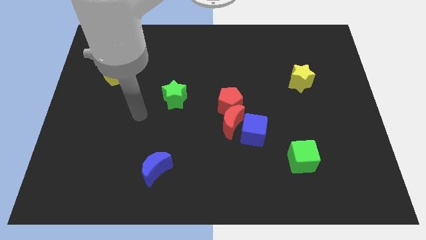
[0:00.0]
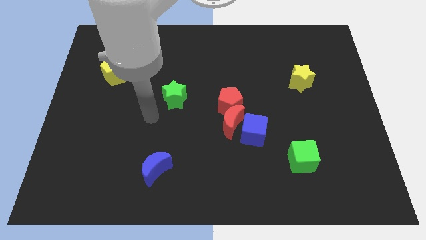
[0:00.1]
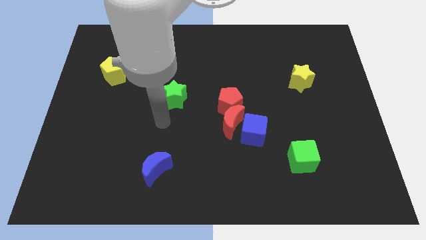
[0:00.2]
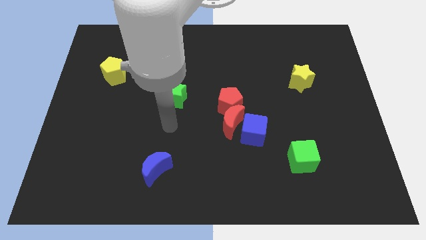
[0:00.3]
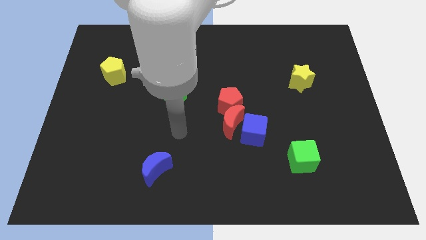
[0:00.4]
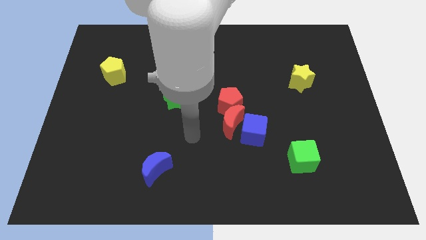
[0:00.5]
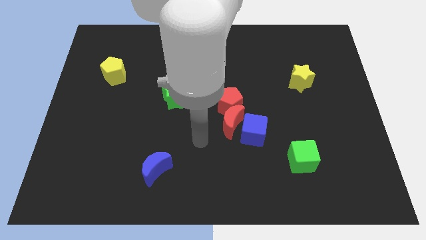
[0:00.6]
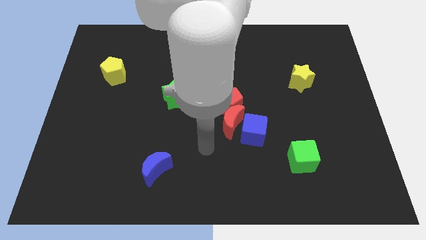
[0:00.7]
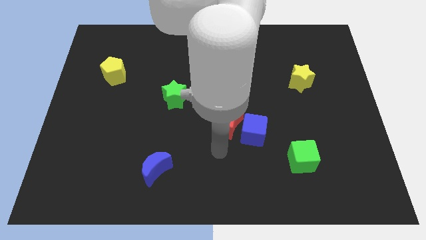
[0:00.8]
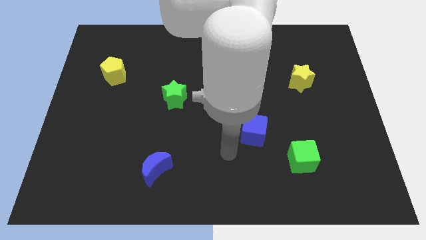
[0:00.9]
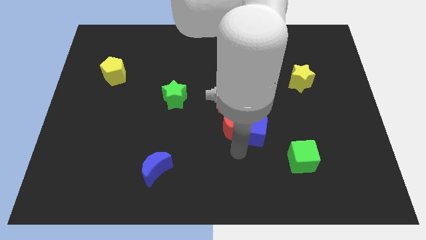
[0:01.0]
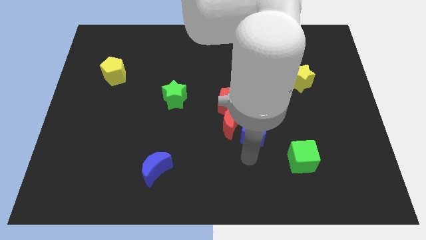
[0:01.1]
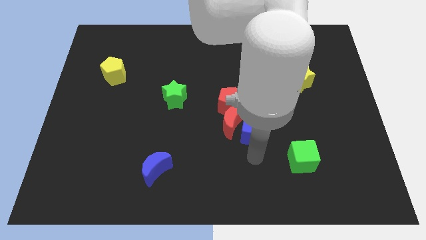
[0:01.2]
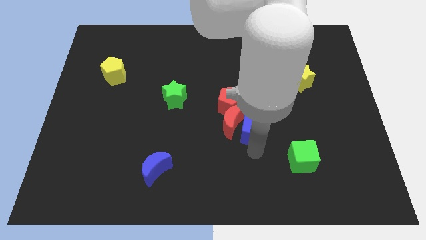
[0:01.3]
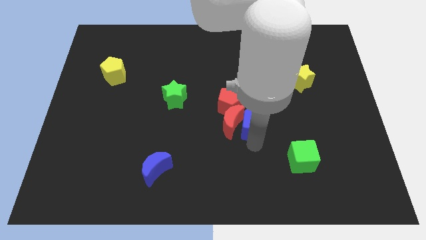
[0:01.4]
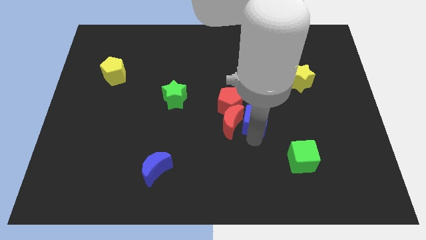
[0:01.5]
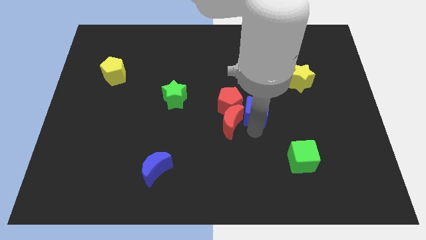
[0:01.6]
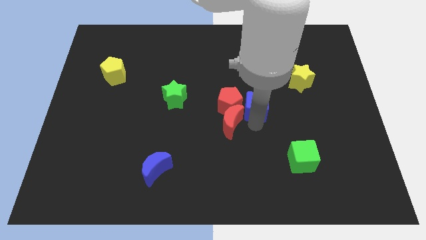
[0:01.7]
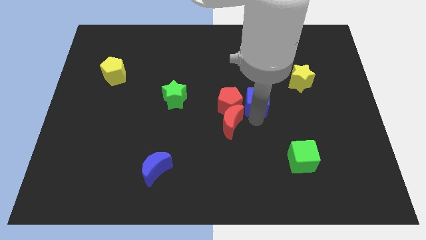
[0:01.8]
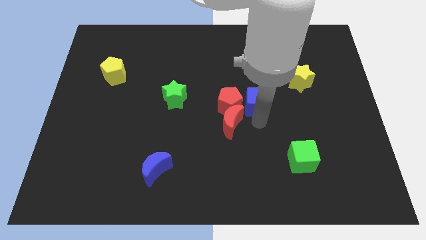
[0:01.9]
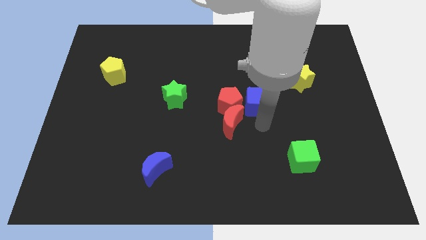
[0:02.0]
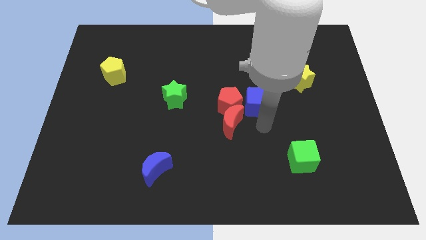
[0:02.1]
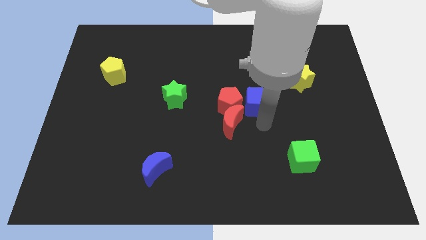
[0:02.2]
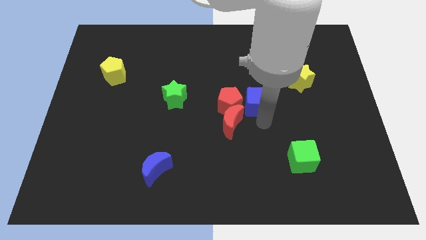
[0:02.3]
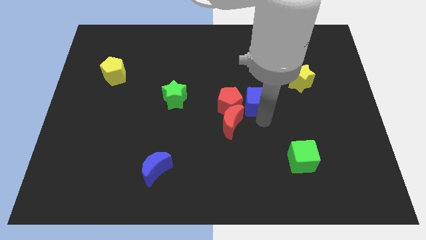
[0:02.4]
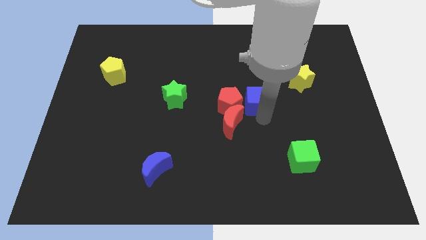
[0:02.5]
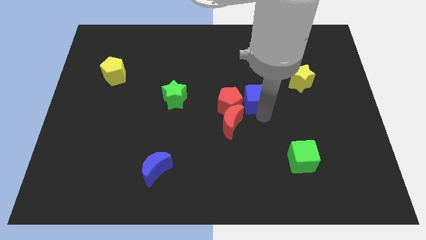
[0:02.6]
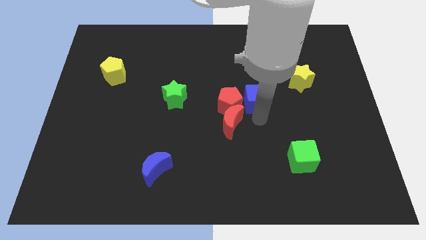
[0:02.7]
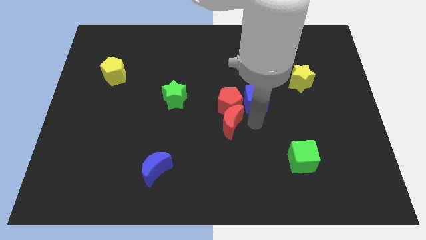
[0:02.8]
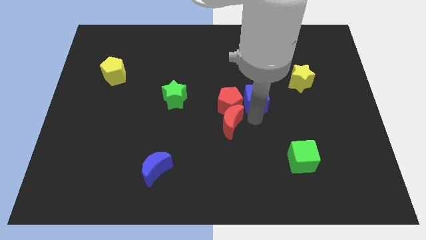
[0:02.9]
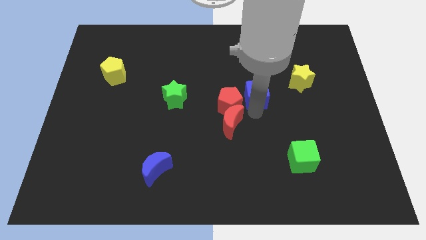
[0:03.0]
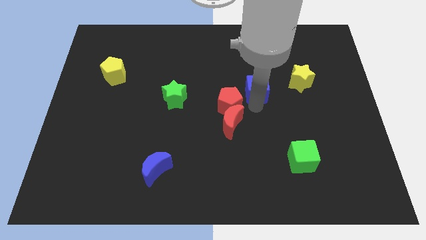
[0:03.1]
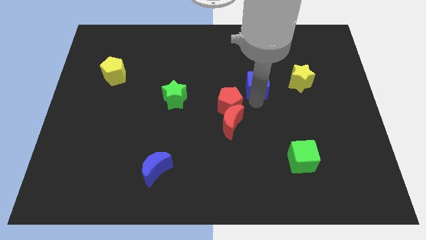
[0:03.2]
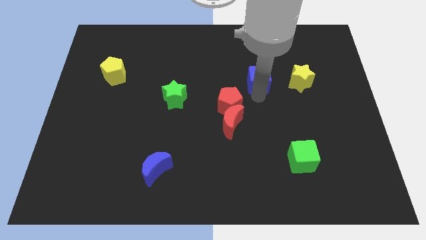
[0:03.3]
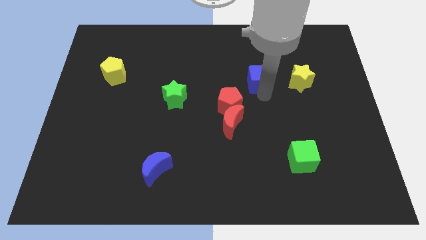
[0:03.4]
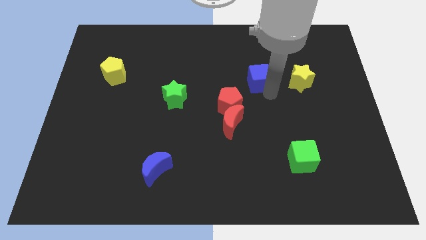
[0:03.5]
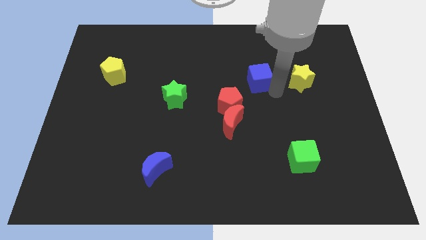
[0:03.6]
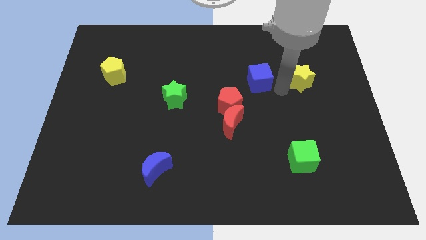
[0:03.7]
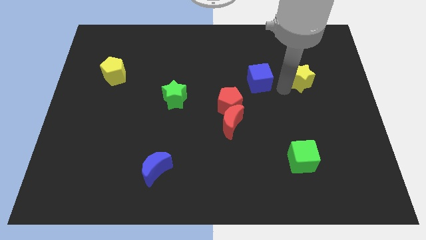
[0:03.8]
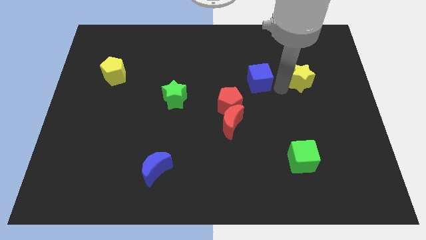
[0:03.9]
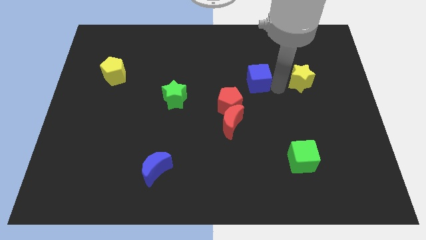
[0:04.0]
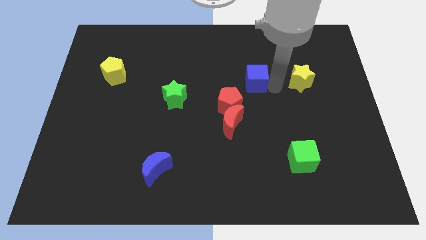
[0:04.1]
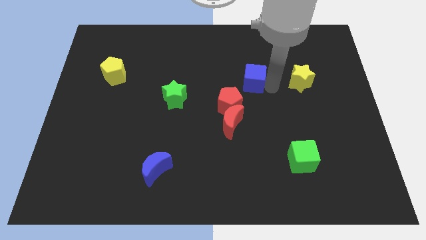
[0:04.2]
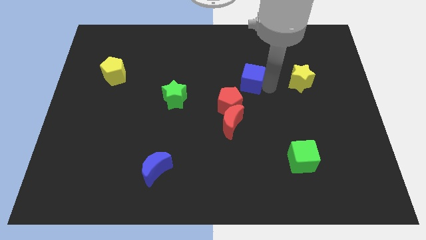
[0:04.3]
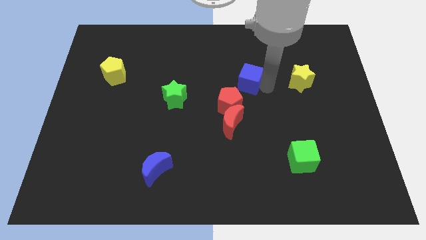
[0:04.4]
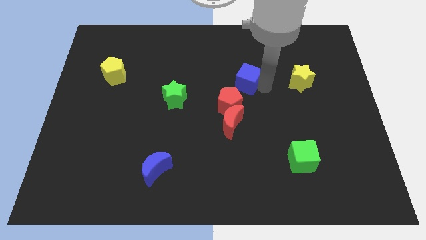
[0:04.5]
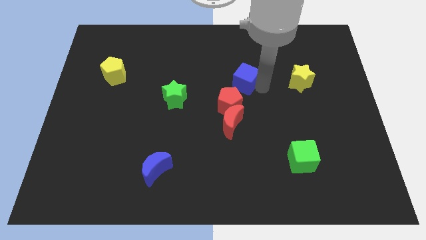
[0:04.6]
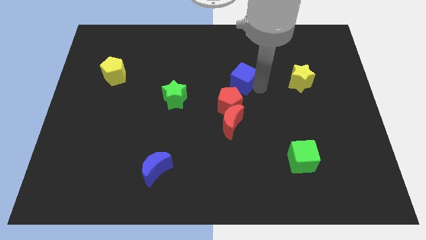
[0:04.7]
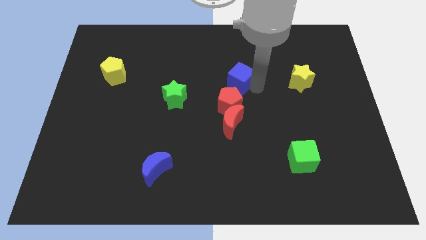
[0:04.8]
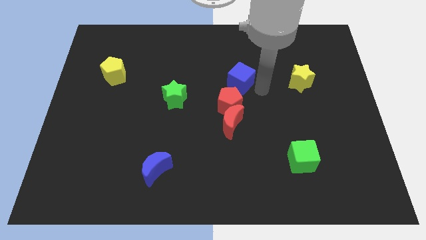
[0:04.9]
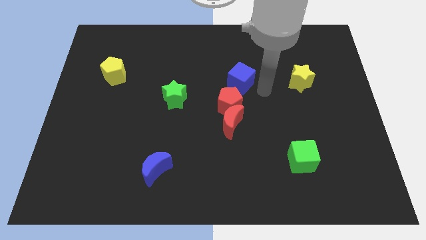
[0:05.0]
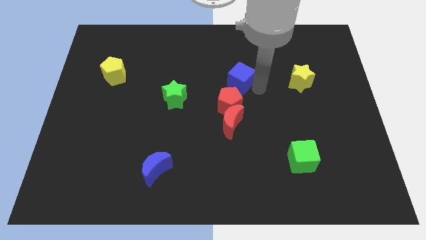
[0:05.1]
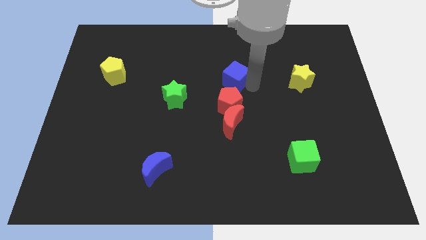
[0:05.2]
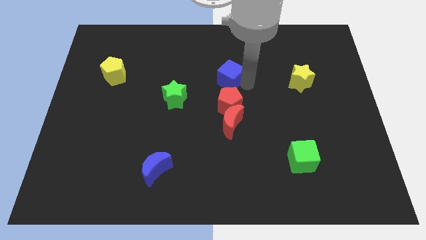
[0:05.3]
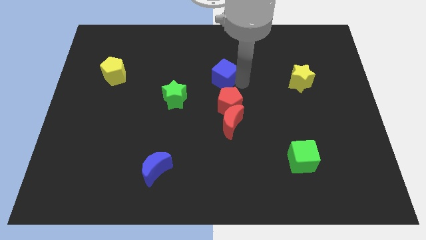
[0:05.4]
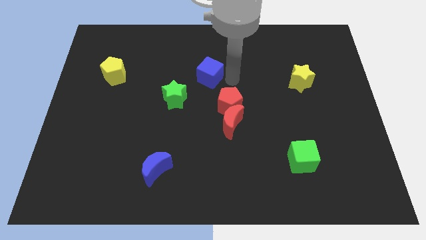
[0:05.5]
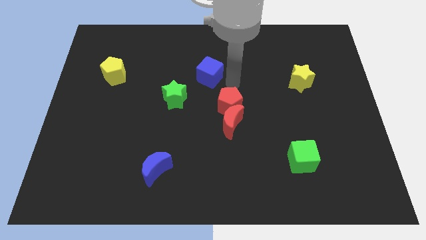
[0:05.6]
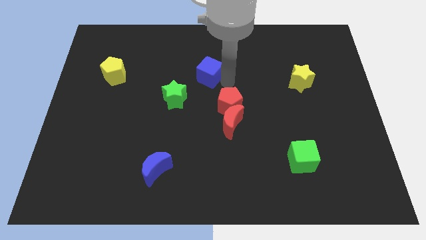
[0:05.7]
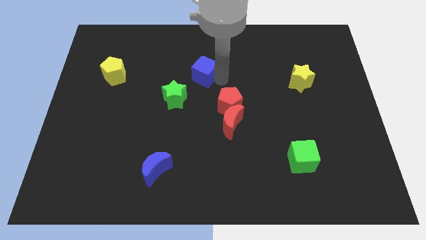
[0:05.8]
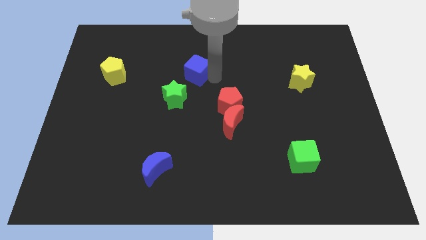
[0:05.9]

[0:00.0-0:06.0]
push the blue cube upwards and then left

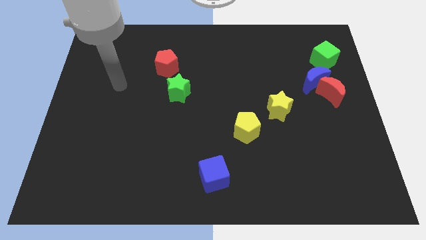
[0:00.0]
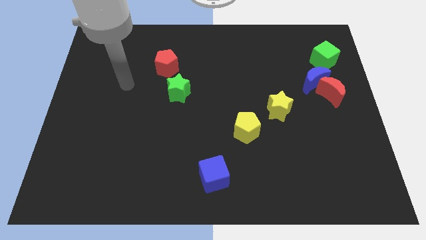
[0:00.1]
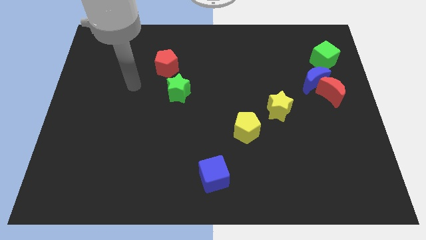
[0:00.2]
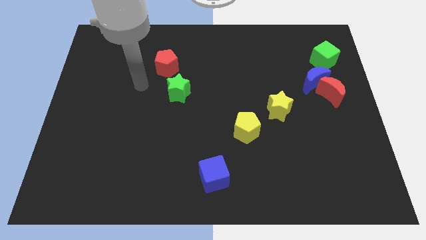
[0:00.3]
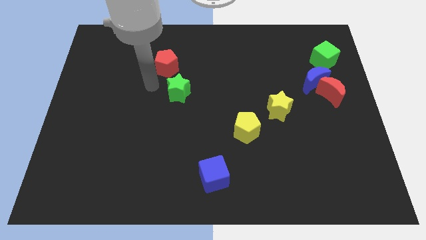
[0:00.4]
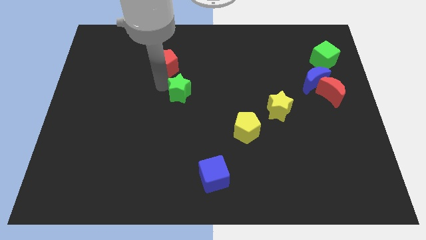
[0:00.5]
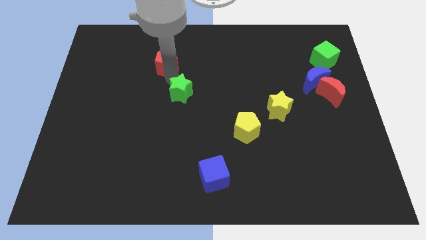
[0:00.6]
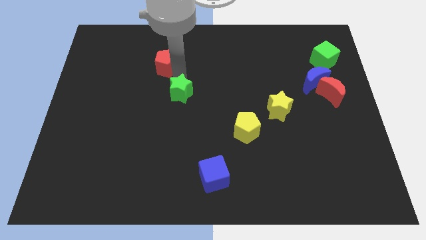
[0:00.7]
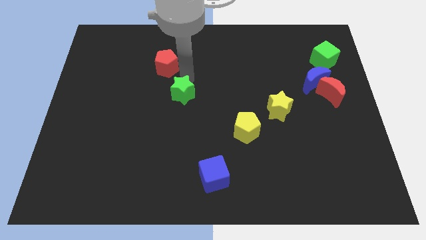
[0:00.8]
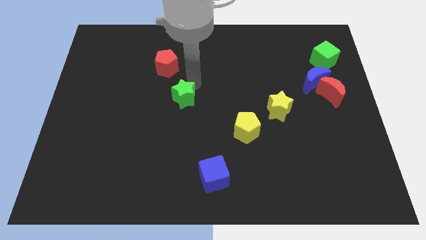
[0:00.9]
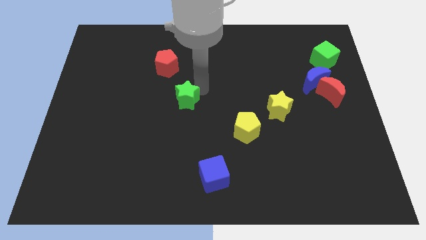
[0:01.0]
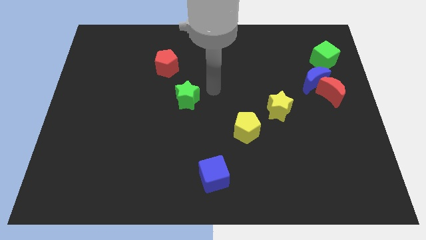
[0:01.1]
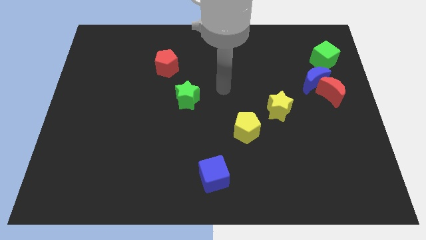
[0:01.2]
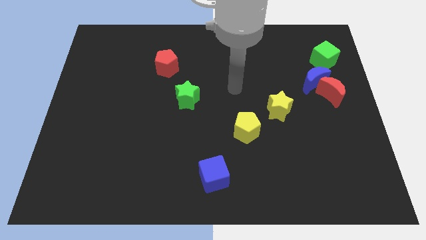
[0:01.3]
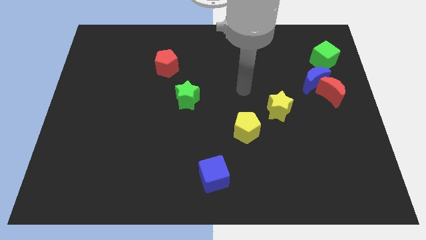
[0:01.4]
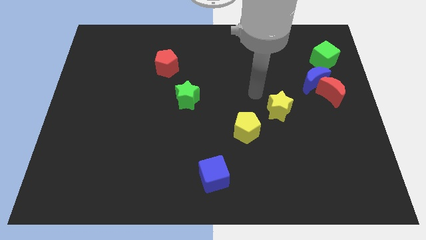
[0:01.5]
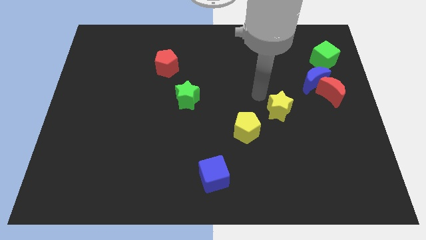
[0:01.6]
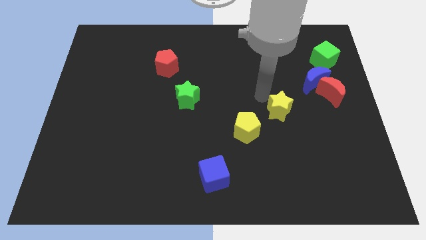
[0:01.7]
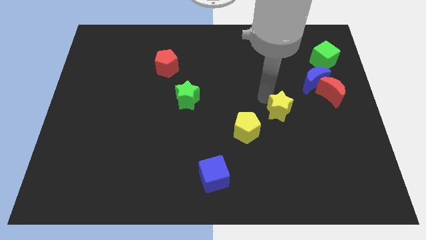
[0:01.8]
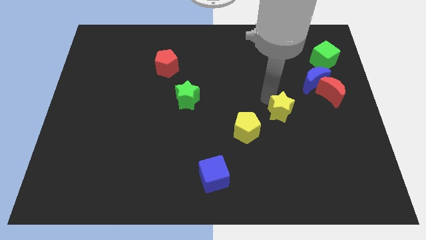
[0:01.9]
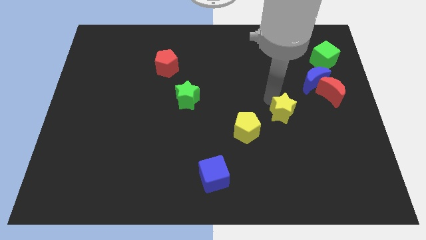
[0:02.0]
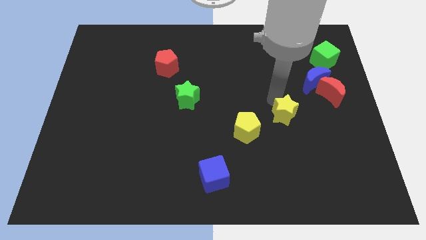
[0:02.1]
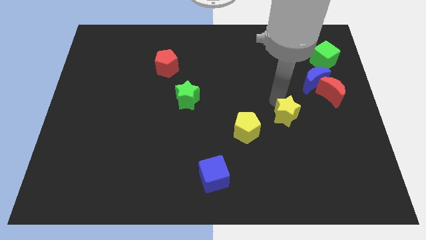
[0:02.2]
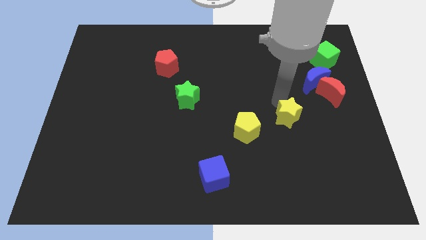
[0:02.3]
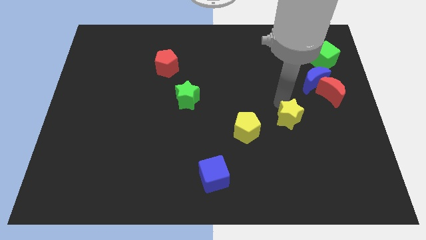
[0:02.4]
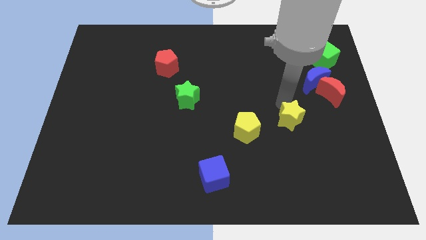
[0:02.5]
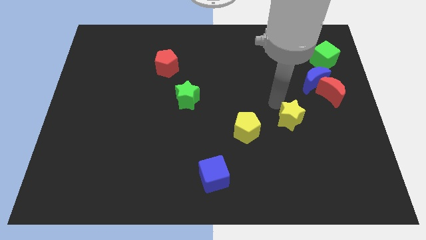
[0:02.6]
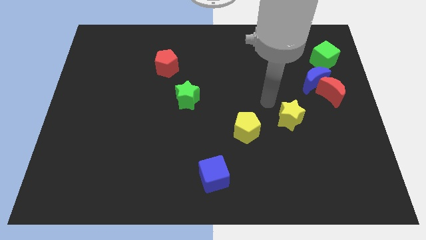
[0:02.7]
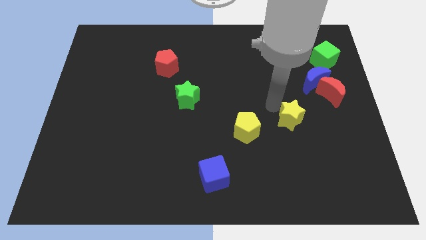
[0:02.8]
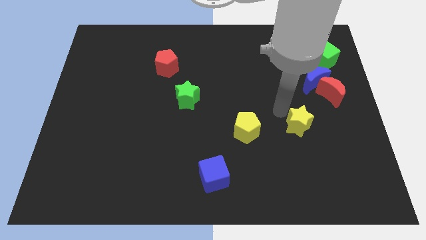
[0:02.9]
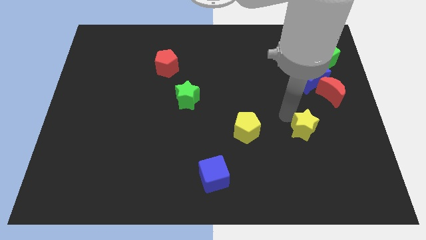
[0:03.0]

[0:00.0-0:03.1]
move the yellow star downwards and to the right somewhat
